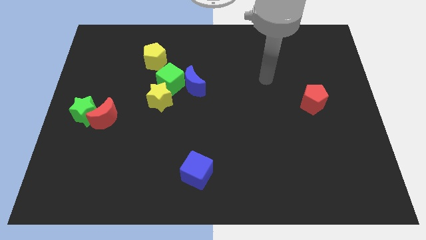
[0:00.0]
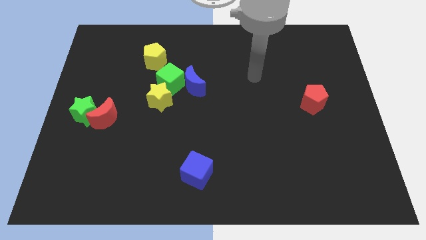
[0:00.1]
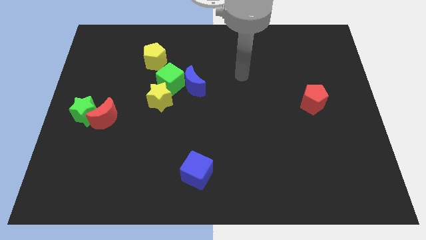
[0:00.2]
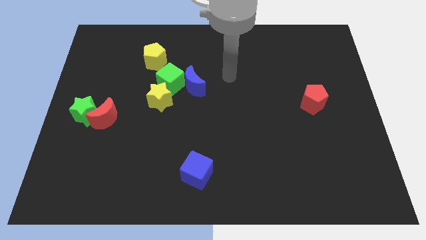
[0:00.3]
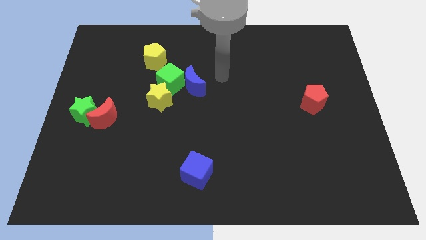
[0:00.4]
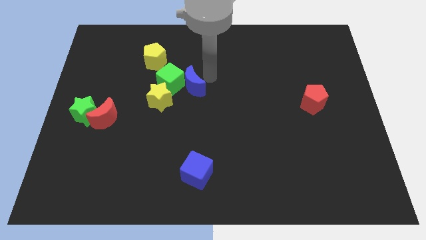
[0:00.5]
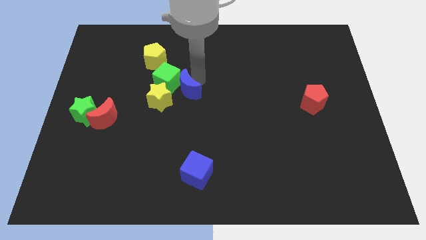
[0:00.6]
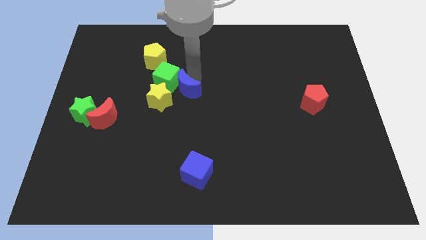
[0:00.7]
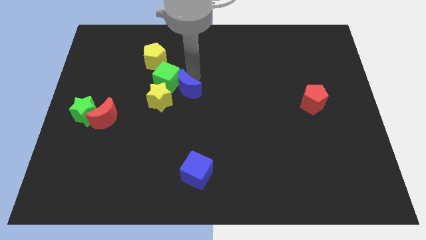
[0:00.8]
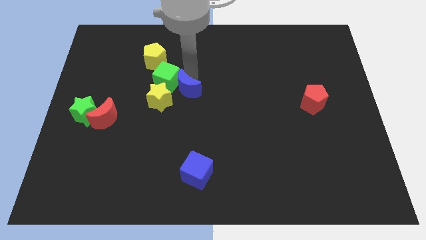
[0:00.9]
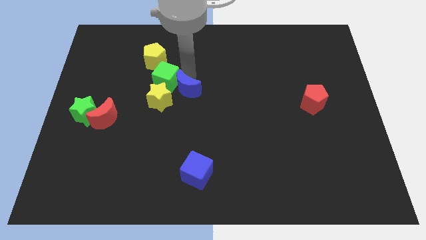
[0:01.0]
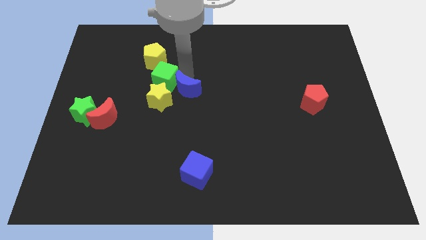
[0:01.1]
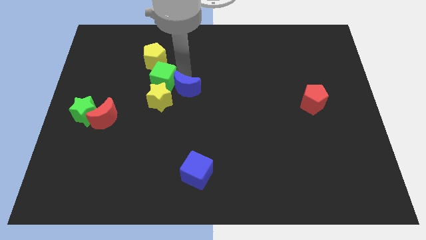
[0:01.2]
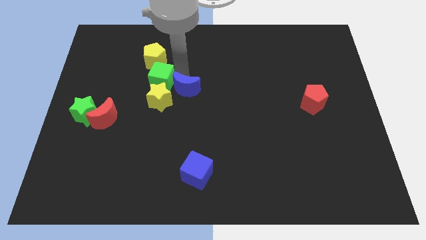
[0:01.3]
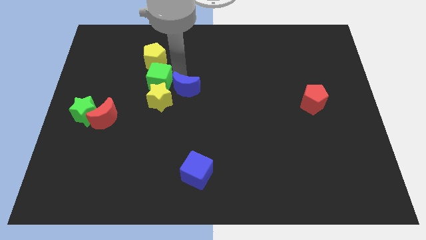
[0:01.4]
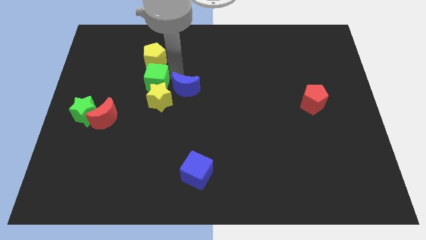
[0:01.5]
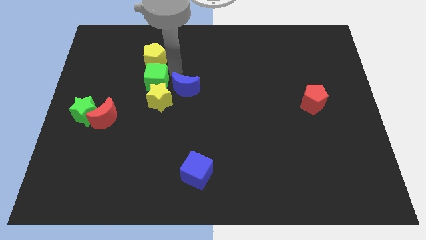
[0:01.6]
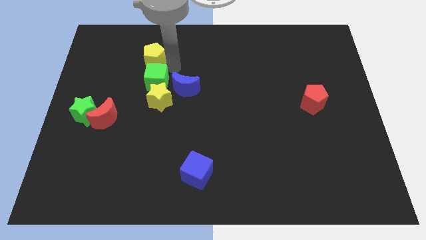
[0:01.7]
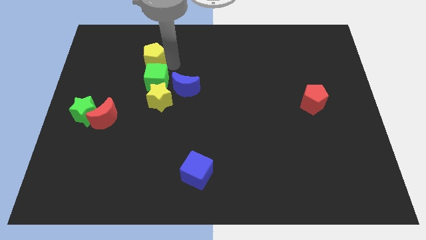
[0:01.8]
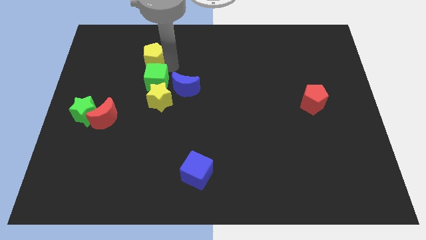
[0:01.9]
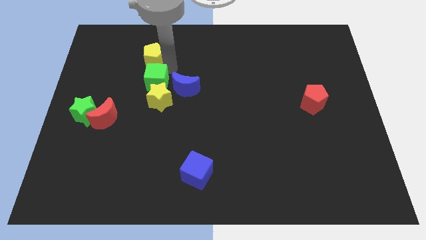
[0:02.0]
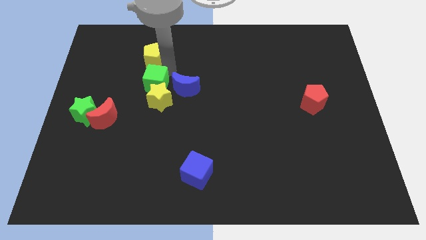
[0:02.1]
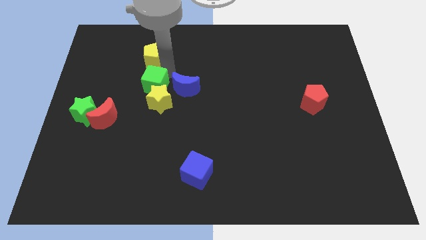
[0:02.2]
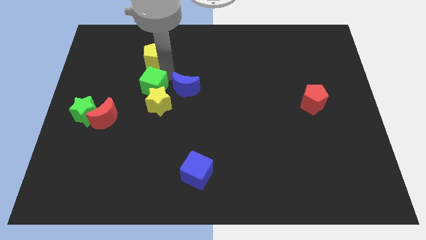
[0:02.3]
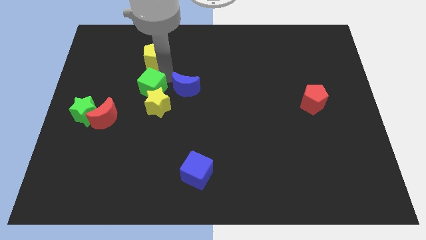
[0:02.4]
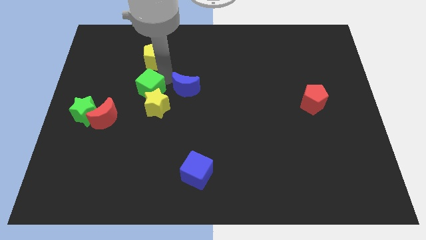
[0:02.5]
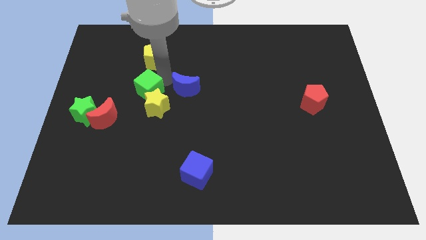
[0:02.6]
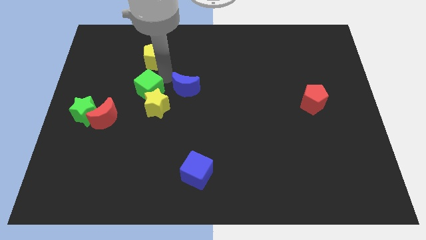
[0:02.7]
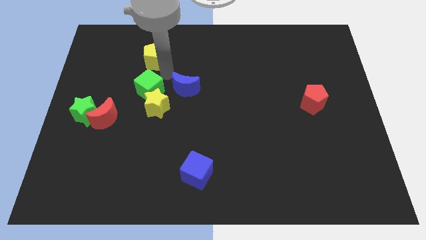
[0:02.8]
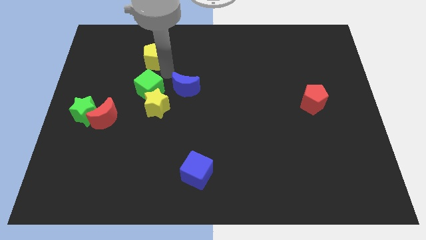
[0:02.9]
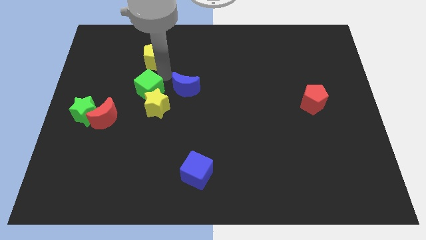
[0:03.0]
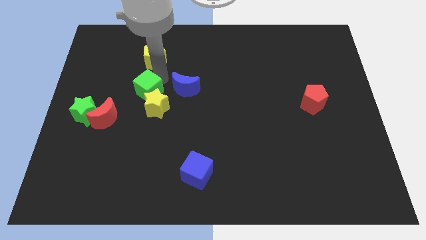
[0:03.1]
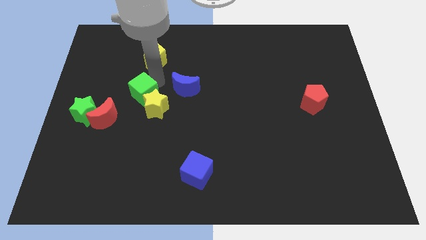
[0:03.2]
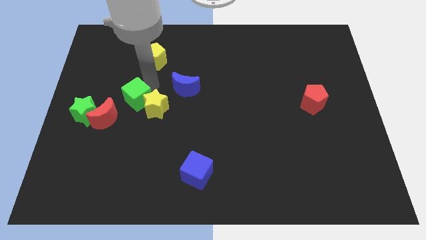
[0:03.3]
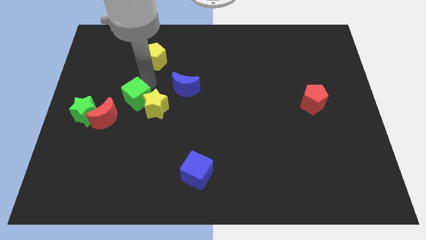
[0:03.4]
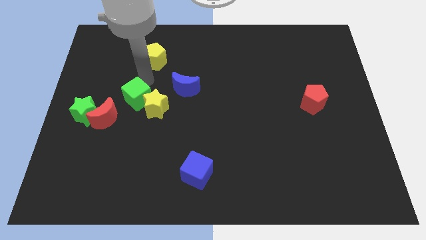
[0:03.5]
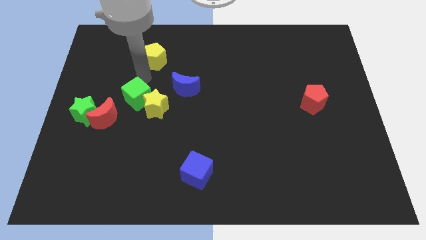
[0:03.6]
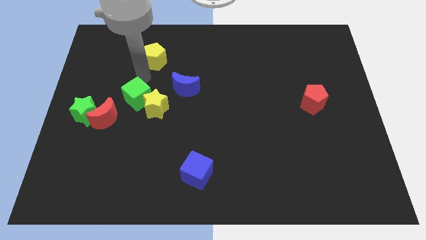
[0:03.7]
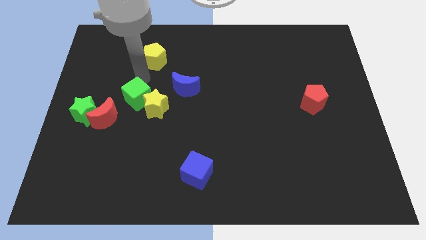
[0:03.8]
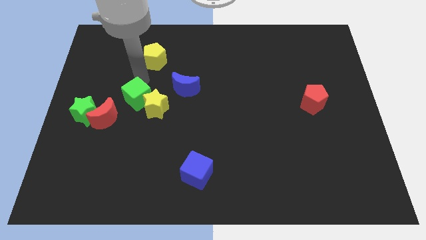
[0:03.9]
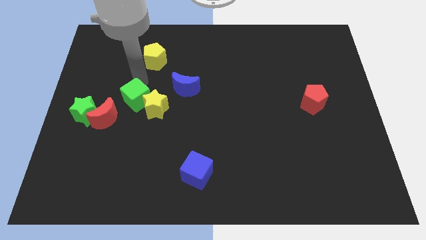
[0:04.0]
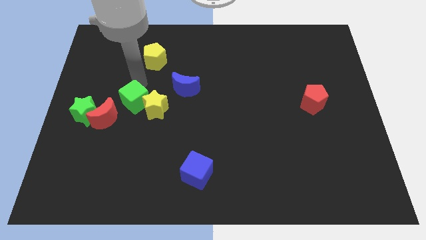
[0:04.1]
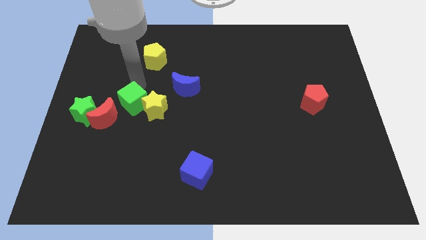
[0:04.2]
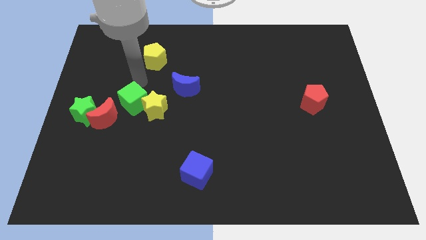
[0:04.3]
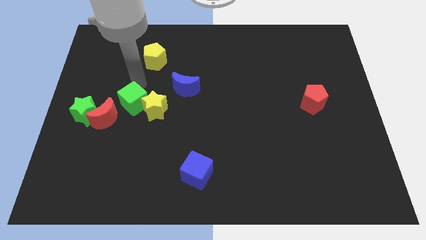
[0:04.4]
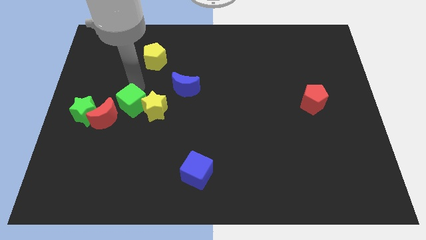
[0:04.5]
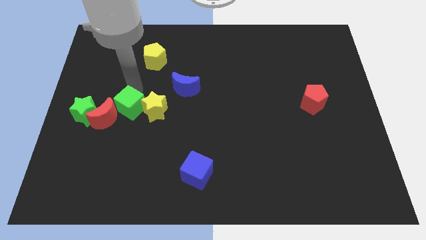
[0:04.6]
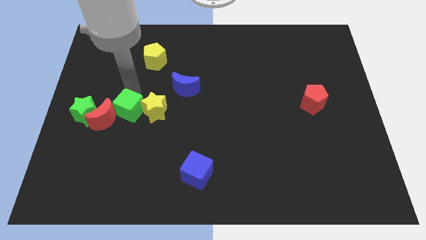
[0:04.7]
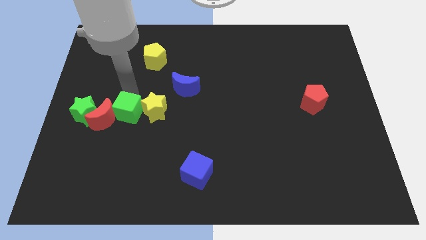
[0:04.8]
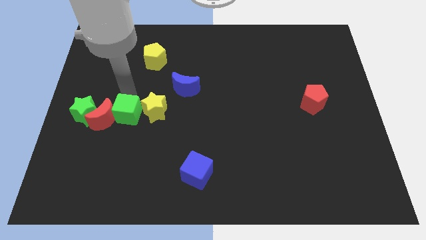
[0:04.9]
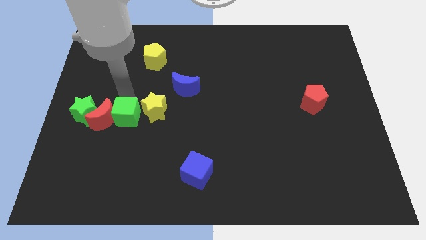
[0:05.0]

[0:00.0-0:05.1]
move the green cube to the bottom right of the red moon

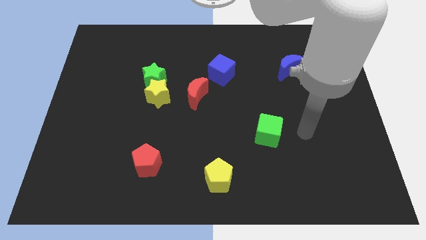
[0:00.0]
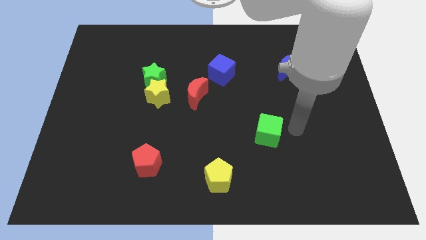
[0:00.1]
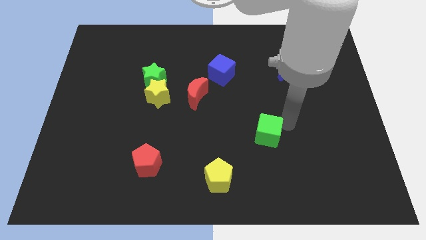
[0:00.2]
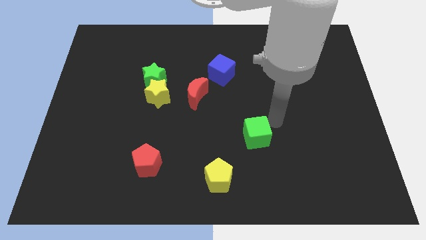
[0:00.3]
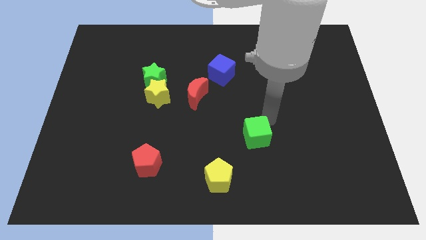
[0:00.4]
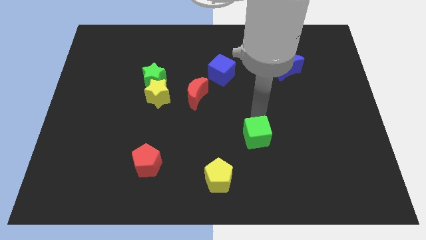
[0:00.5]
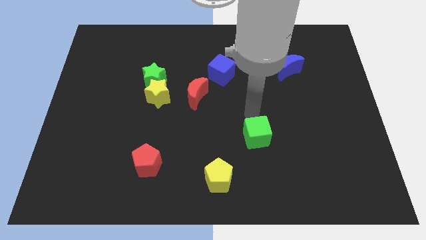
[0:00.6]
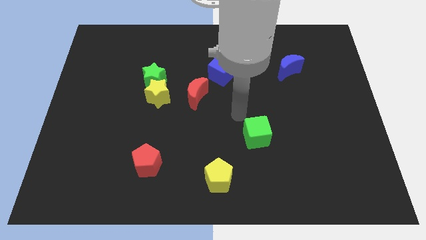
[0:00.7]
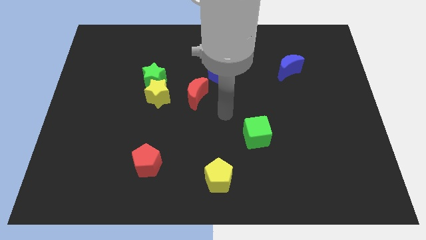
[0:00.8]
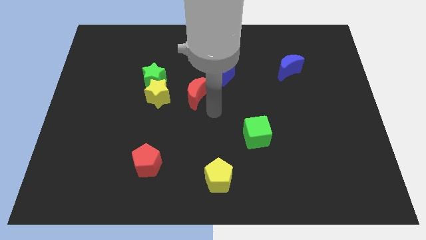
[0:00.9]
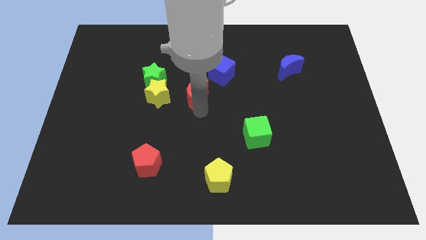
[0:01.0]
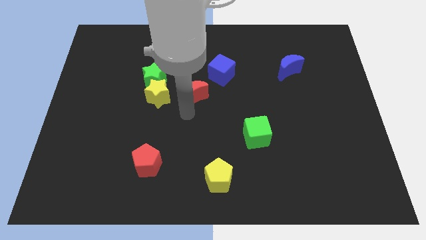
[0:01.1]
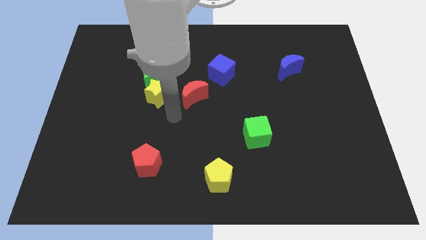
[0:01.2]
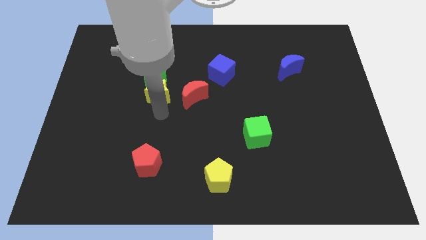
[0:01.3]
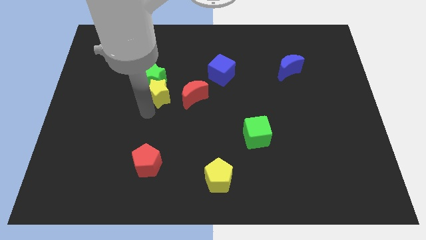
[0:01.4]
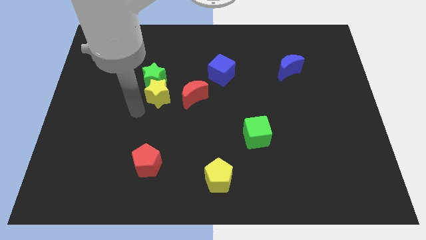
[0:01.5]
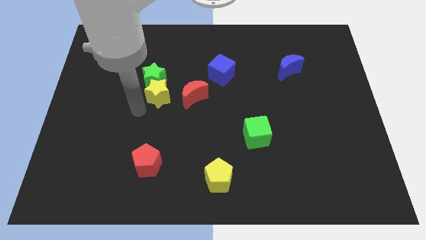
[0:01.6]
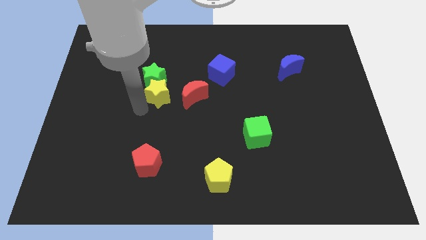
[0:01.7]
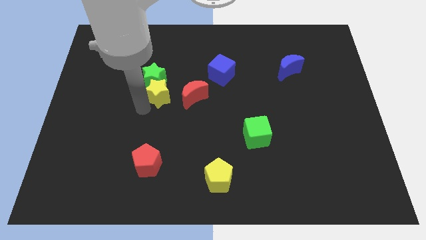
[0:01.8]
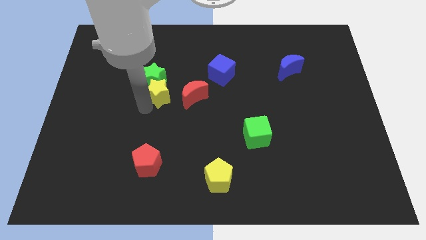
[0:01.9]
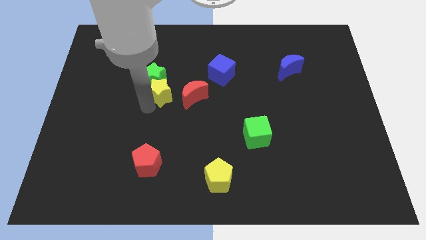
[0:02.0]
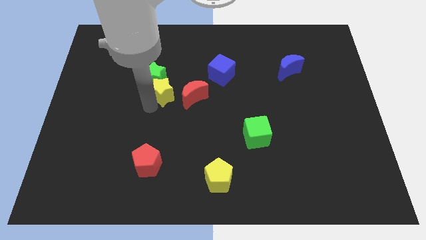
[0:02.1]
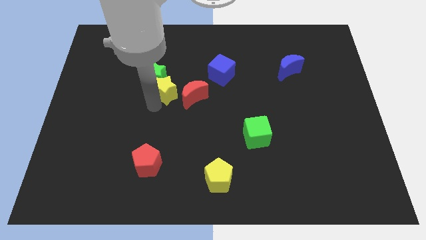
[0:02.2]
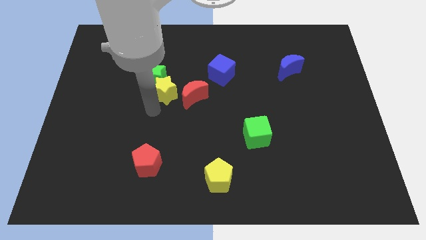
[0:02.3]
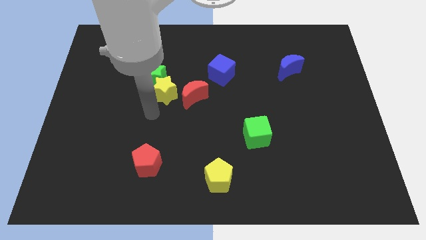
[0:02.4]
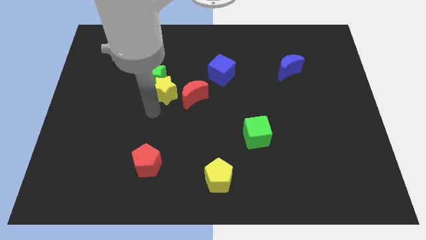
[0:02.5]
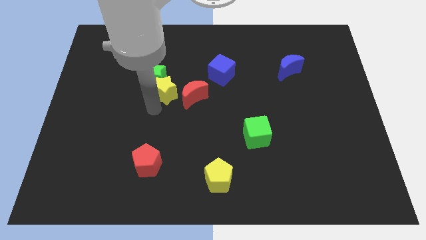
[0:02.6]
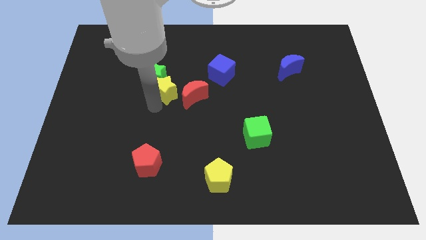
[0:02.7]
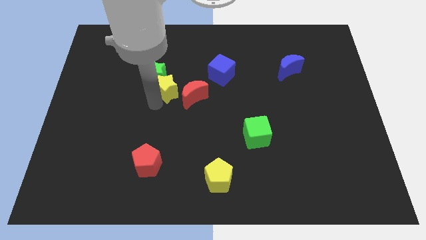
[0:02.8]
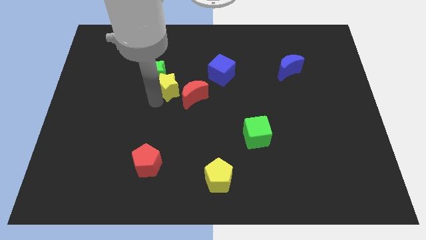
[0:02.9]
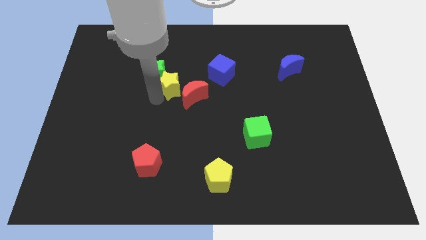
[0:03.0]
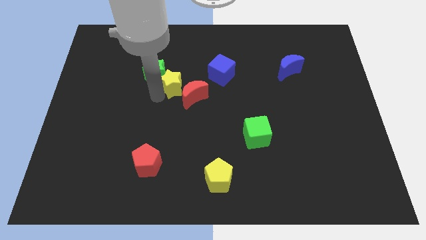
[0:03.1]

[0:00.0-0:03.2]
move the yellow star just left of the blue cube

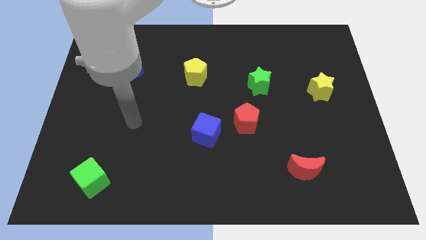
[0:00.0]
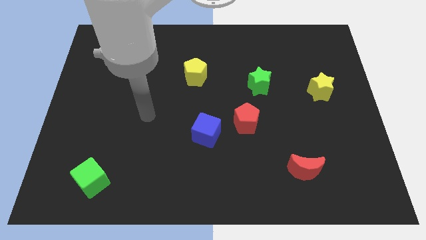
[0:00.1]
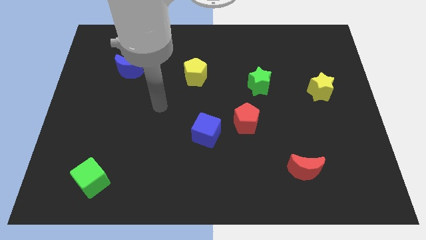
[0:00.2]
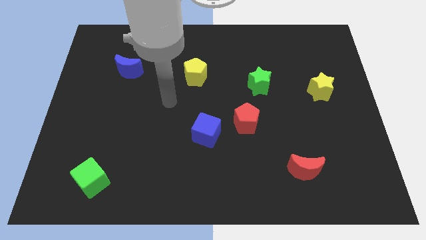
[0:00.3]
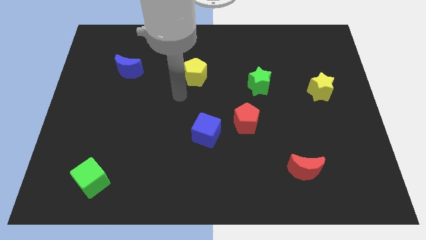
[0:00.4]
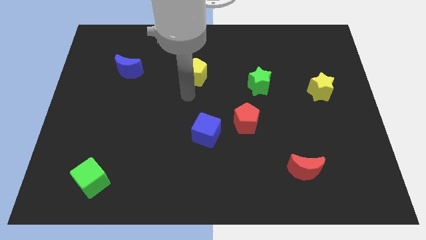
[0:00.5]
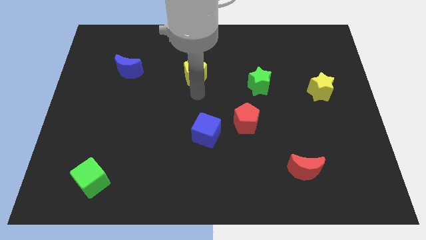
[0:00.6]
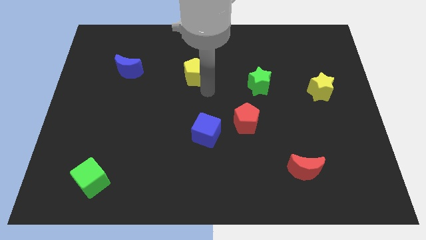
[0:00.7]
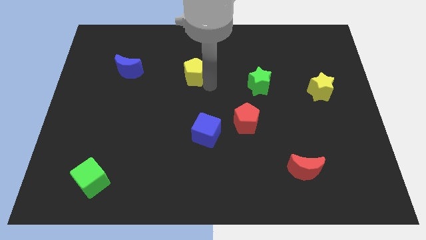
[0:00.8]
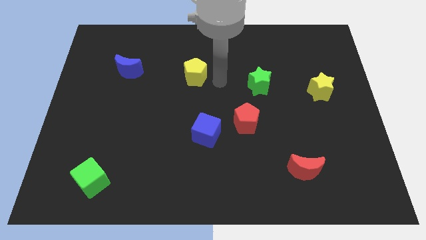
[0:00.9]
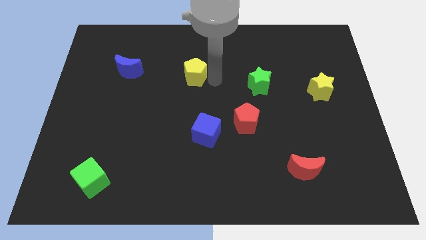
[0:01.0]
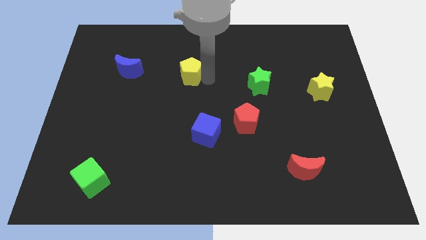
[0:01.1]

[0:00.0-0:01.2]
push the yellow pentagon just right of the blue moon
